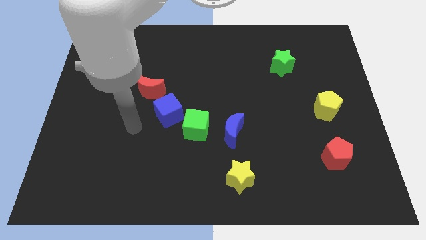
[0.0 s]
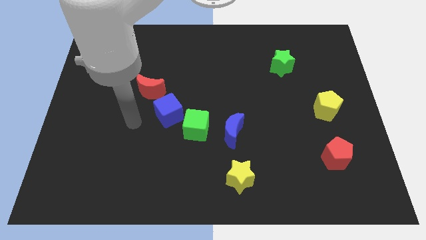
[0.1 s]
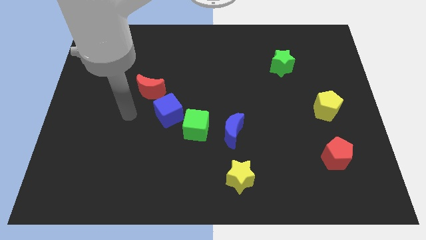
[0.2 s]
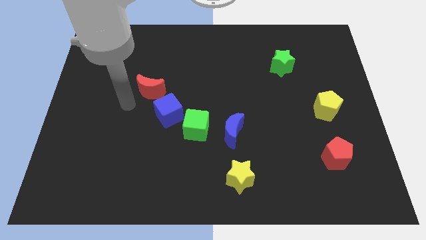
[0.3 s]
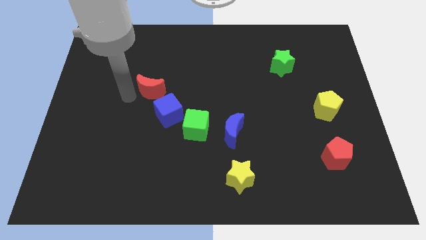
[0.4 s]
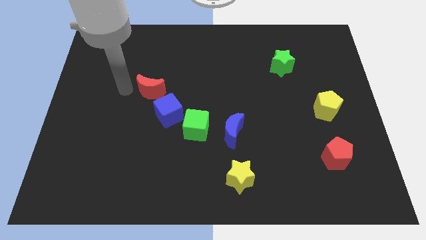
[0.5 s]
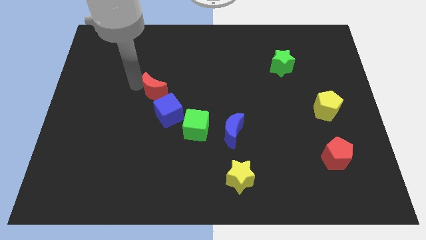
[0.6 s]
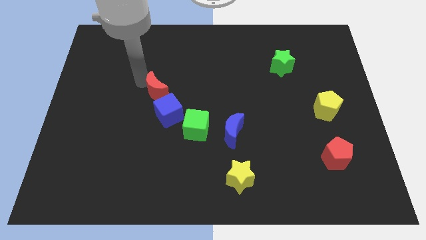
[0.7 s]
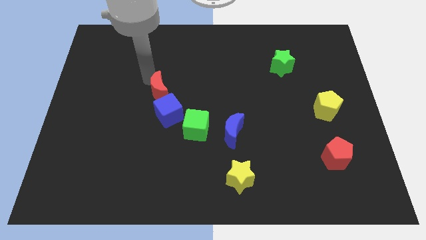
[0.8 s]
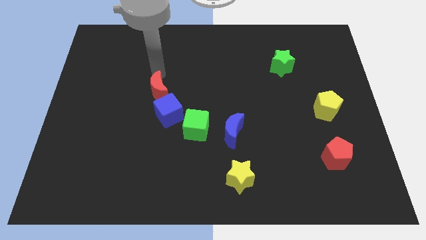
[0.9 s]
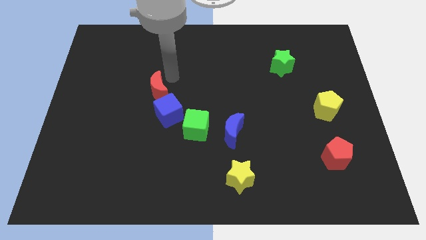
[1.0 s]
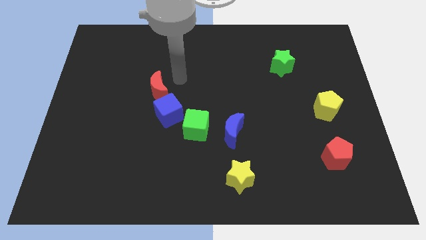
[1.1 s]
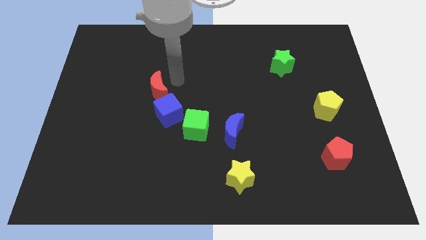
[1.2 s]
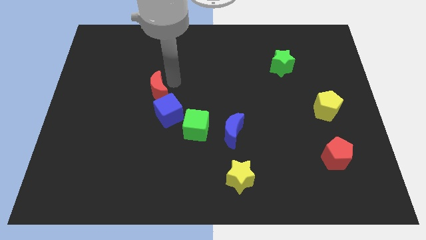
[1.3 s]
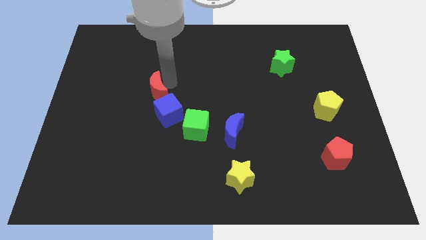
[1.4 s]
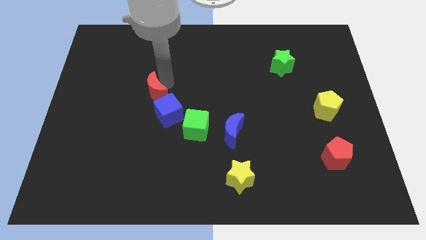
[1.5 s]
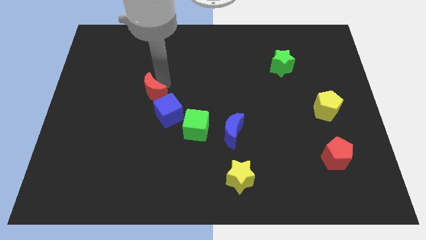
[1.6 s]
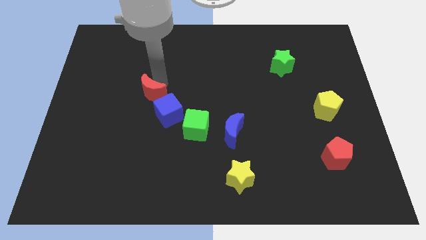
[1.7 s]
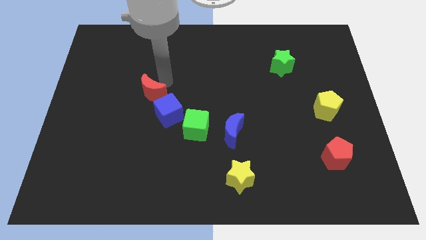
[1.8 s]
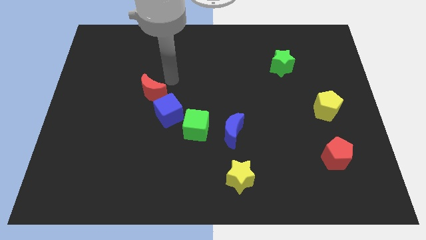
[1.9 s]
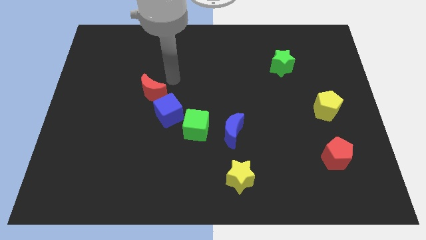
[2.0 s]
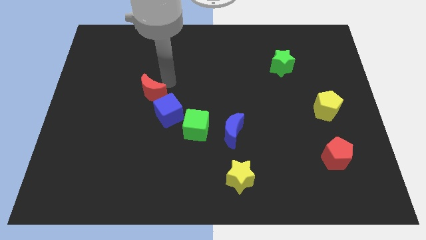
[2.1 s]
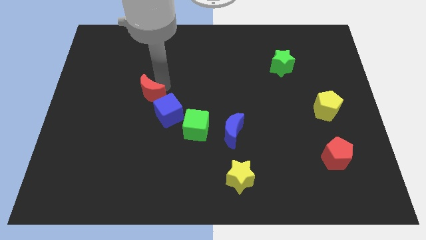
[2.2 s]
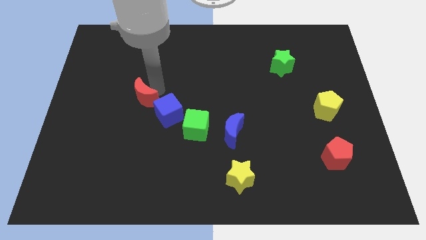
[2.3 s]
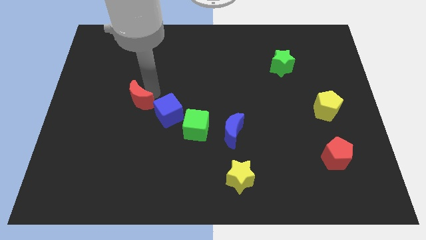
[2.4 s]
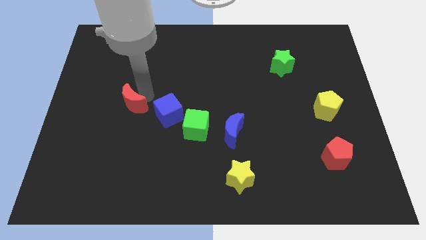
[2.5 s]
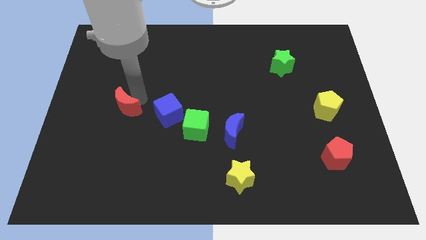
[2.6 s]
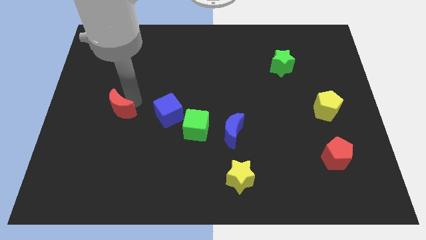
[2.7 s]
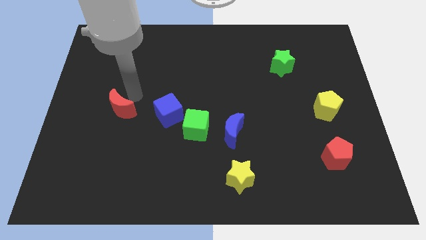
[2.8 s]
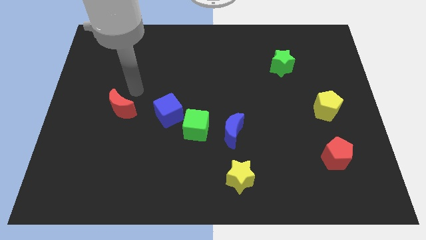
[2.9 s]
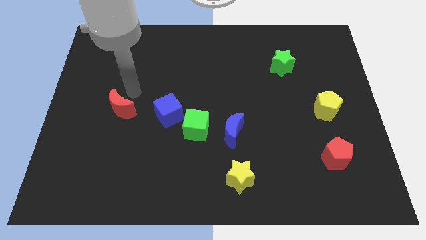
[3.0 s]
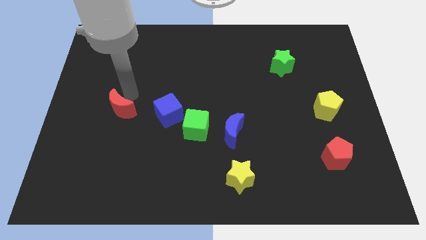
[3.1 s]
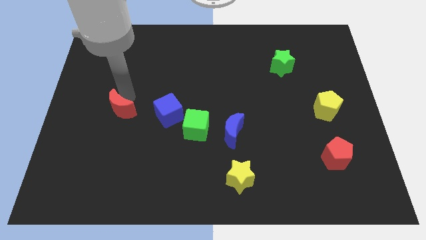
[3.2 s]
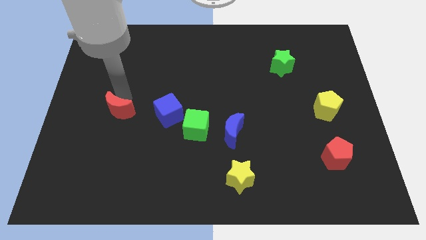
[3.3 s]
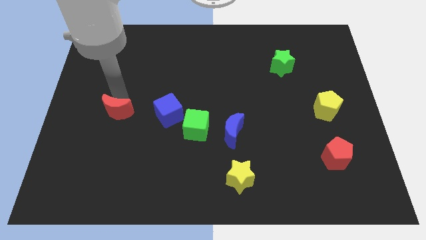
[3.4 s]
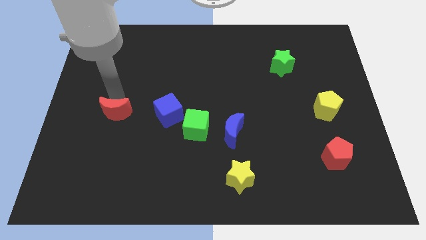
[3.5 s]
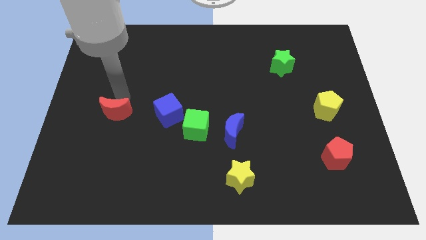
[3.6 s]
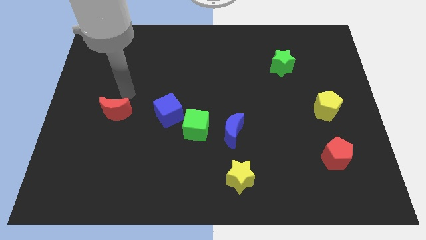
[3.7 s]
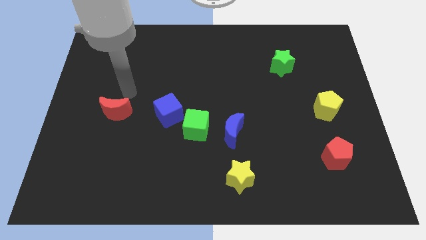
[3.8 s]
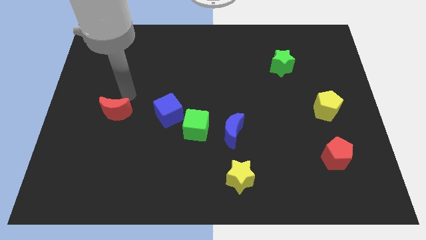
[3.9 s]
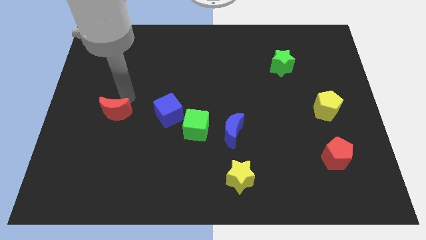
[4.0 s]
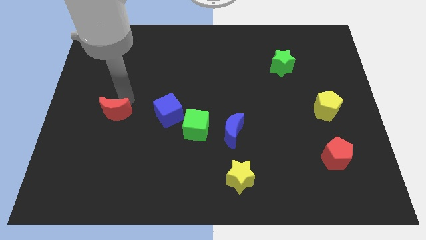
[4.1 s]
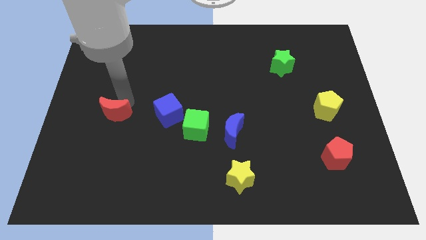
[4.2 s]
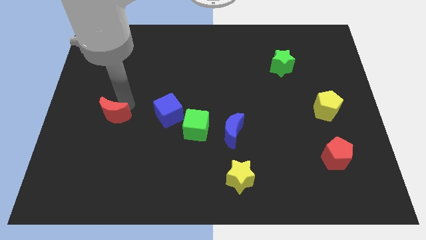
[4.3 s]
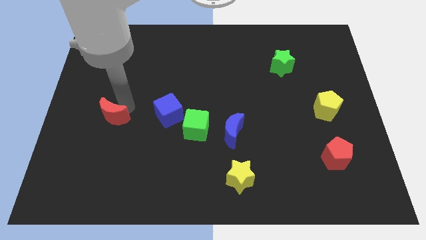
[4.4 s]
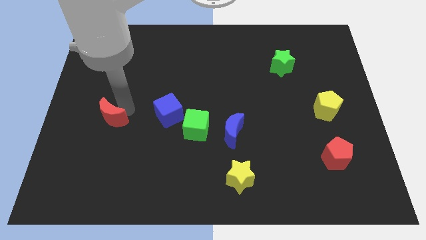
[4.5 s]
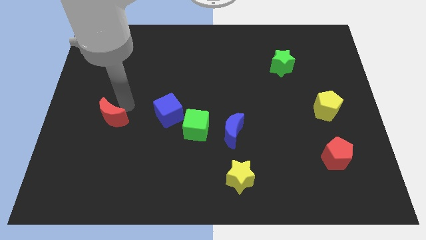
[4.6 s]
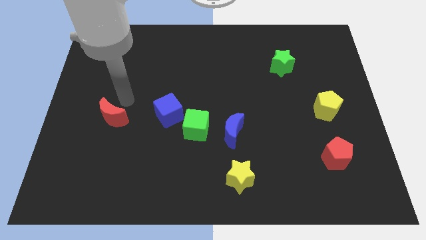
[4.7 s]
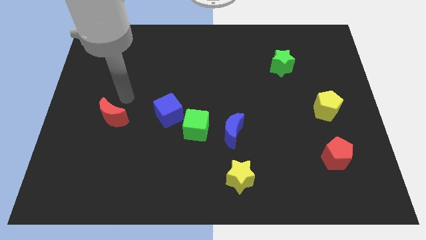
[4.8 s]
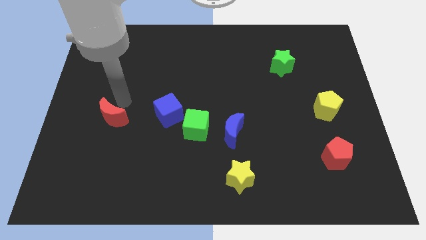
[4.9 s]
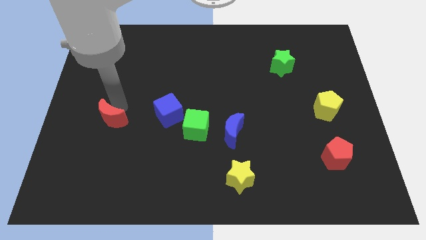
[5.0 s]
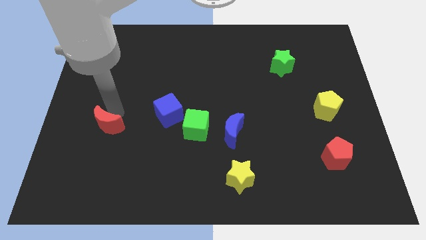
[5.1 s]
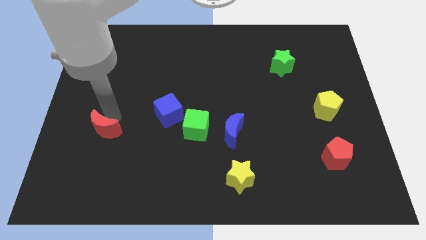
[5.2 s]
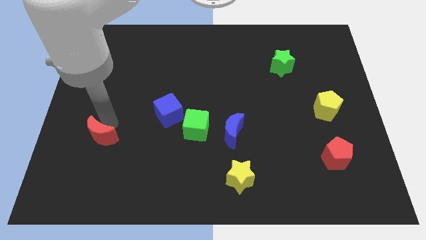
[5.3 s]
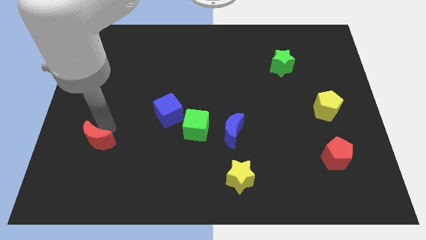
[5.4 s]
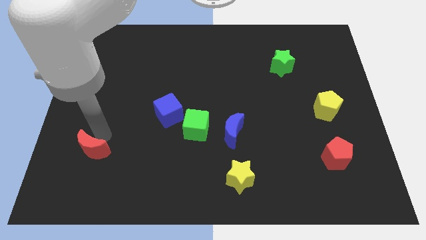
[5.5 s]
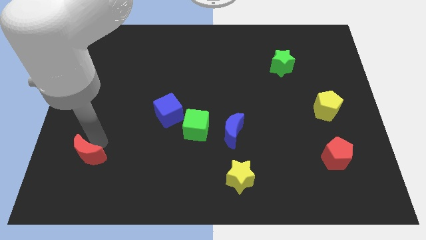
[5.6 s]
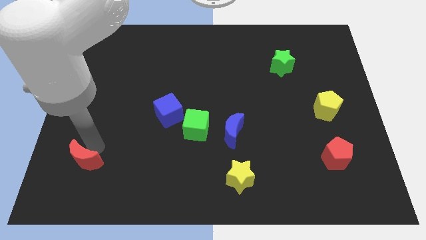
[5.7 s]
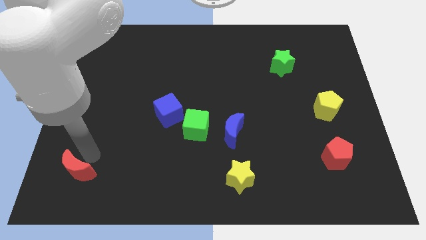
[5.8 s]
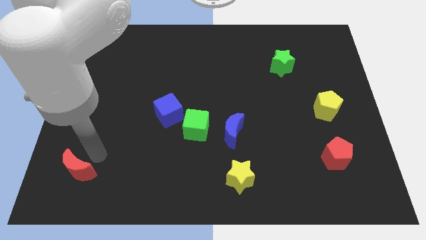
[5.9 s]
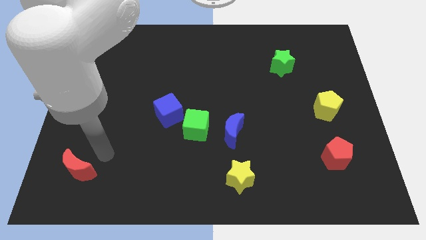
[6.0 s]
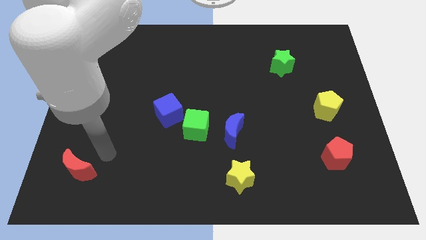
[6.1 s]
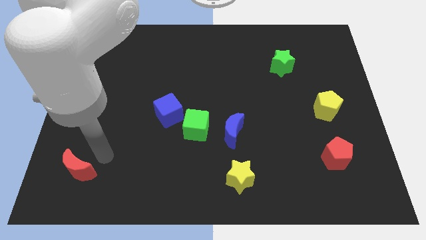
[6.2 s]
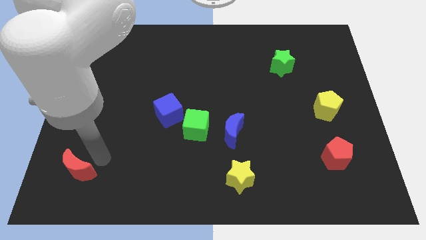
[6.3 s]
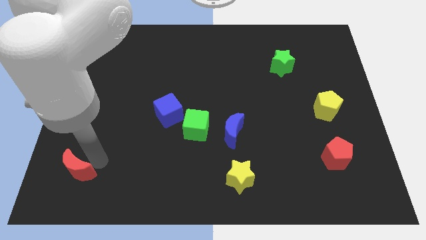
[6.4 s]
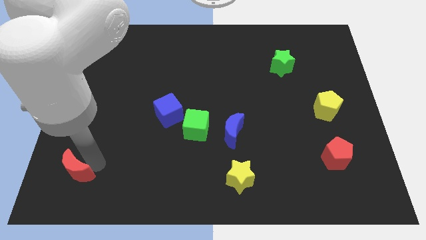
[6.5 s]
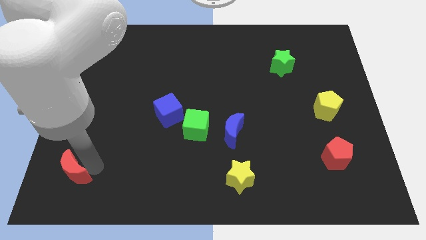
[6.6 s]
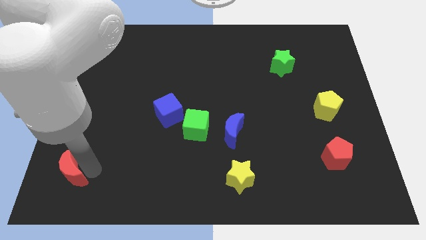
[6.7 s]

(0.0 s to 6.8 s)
push the red moon to the bottom left corner
